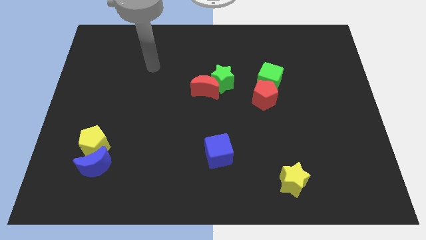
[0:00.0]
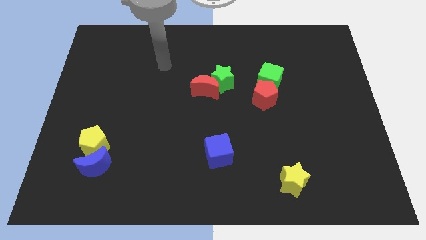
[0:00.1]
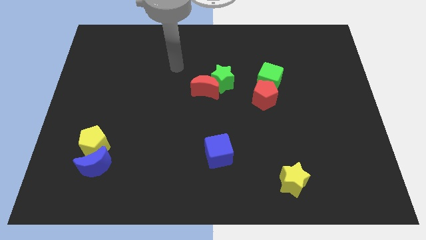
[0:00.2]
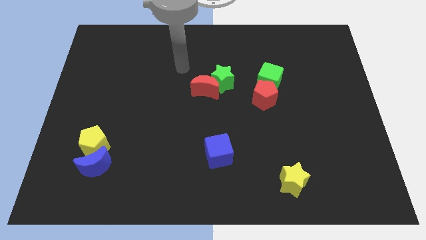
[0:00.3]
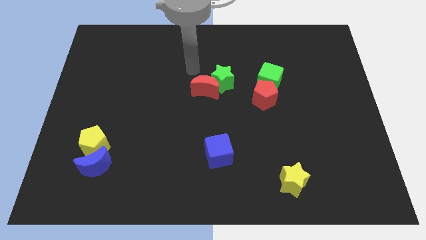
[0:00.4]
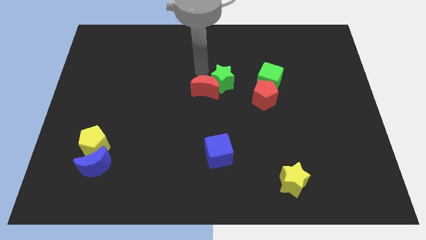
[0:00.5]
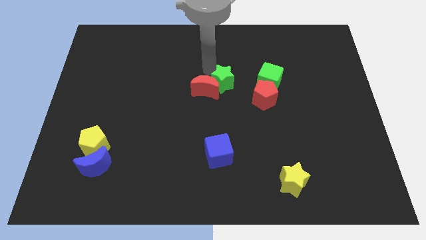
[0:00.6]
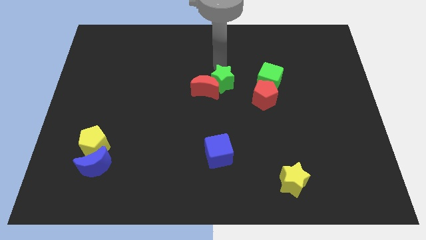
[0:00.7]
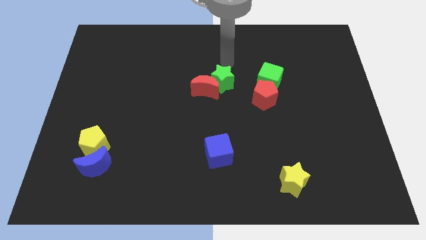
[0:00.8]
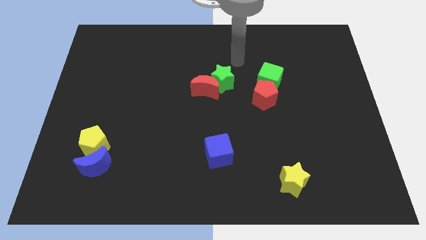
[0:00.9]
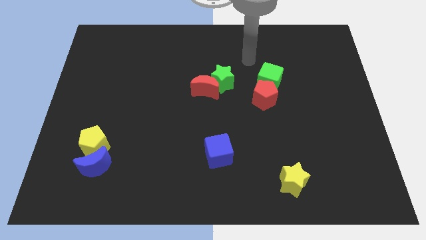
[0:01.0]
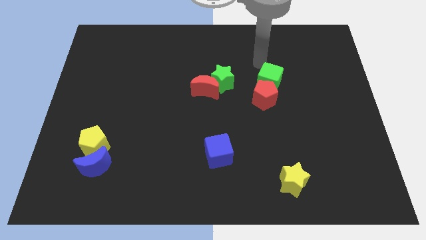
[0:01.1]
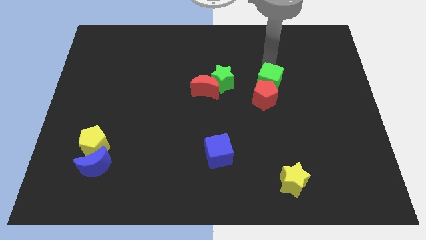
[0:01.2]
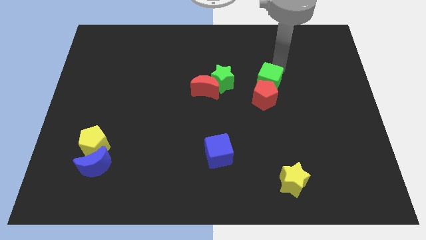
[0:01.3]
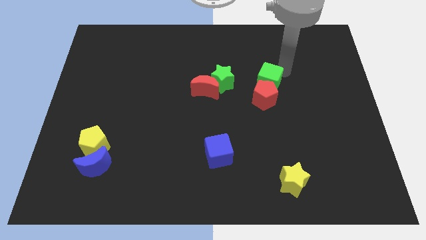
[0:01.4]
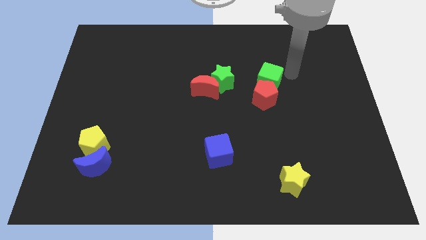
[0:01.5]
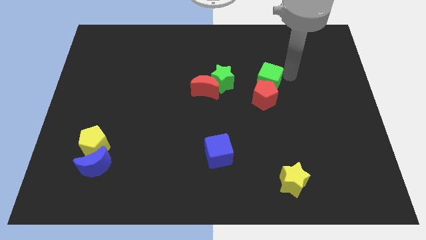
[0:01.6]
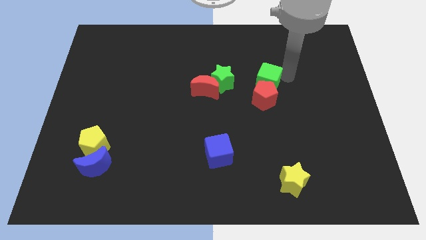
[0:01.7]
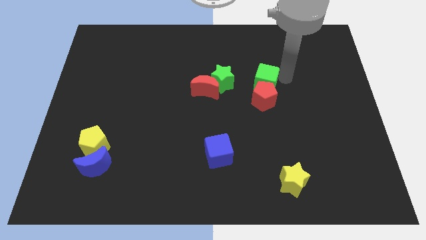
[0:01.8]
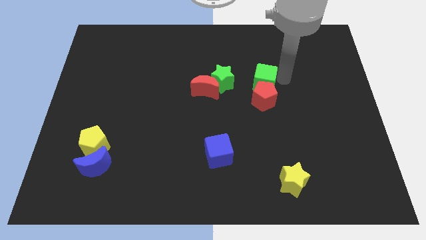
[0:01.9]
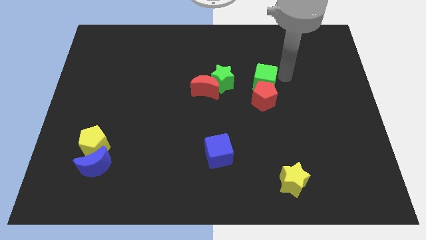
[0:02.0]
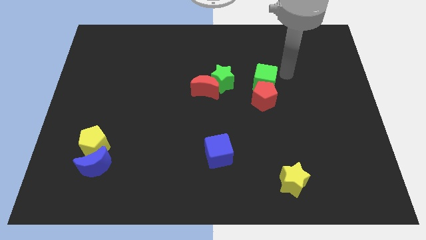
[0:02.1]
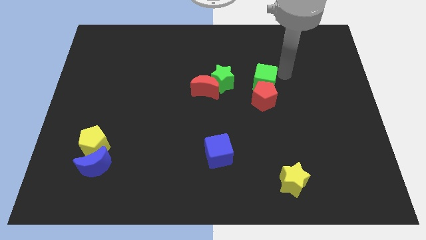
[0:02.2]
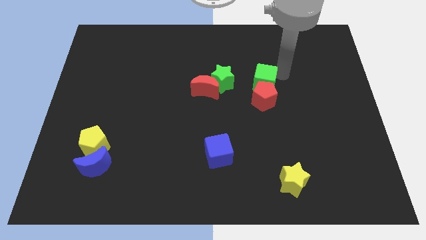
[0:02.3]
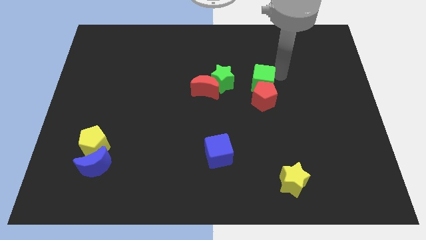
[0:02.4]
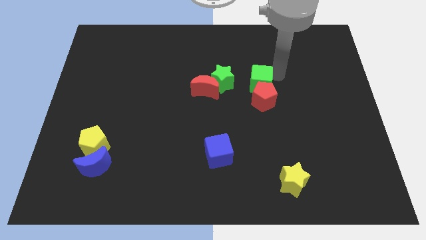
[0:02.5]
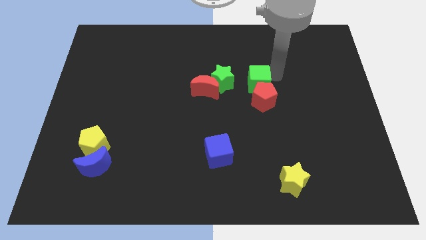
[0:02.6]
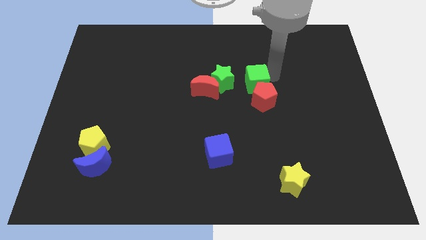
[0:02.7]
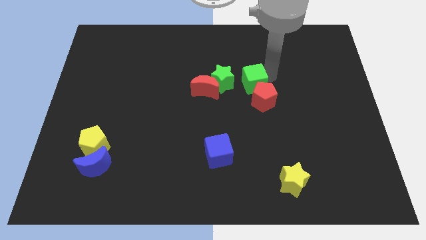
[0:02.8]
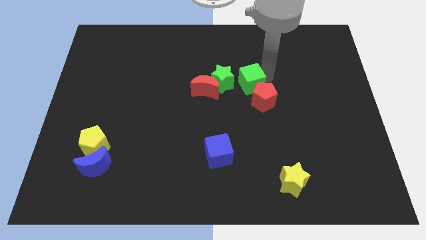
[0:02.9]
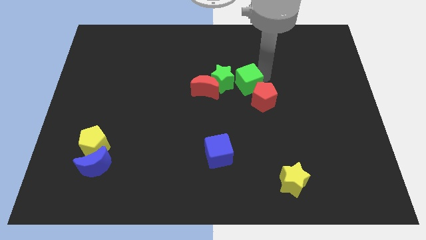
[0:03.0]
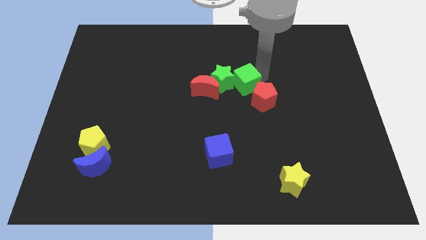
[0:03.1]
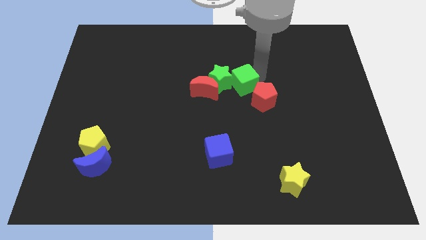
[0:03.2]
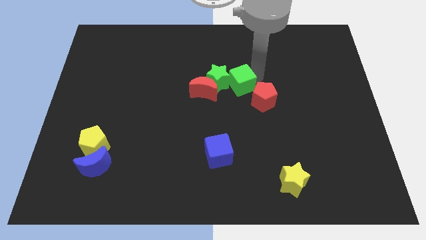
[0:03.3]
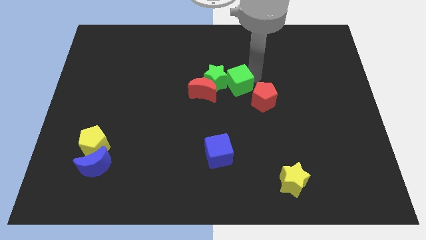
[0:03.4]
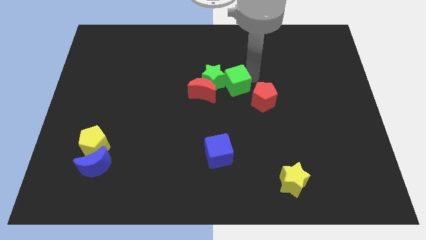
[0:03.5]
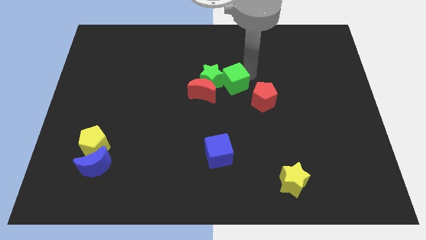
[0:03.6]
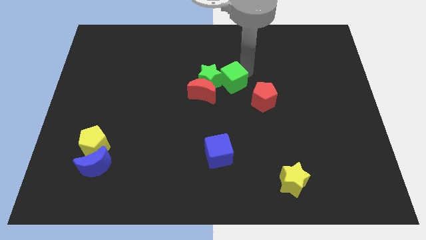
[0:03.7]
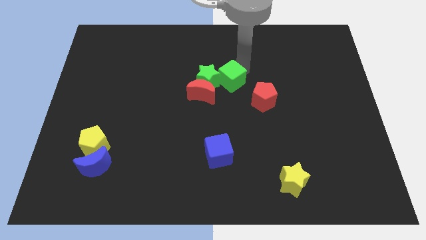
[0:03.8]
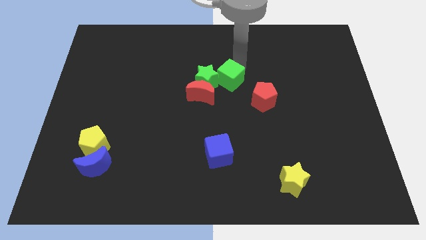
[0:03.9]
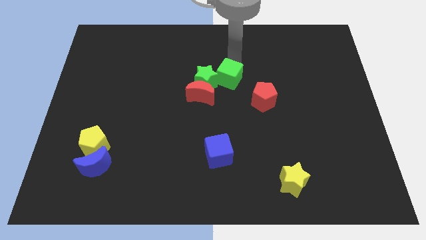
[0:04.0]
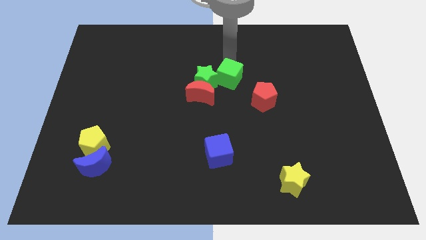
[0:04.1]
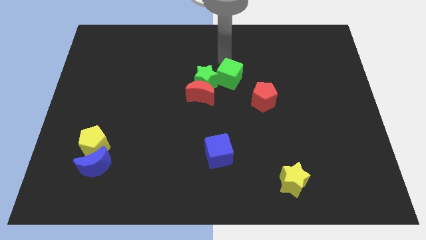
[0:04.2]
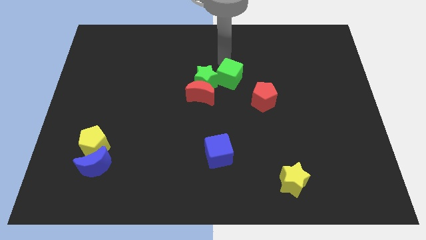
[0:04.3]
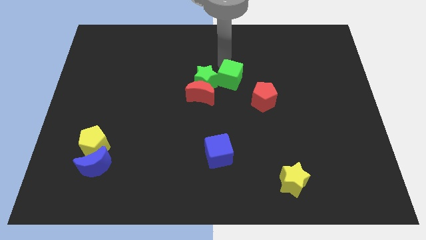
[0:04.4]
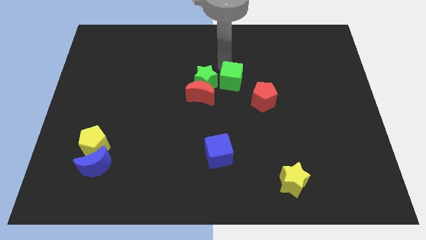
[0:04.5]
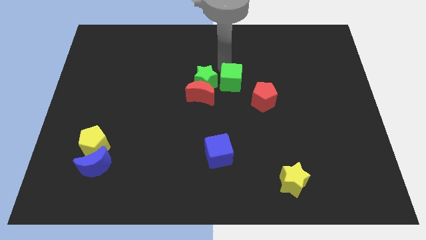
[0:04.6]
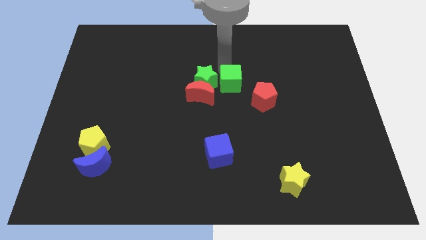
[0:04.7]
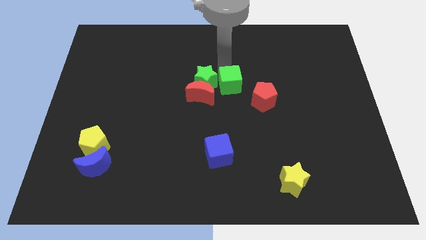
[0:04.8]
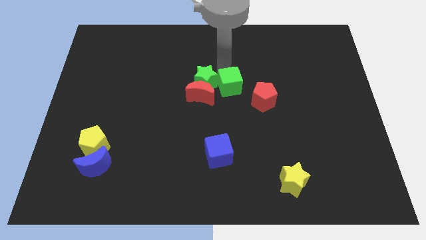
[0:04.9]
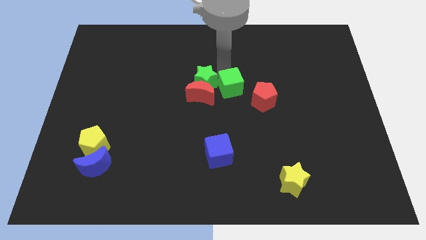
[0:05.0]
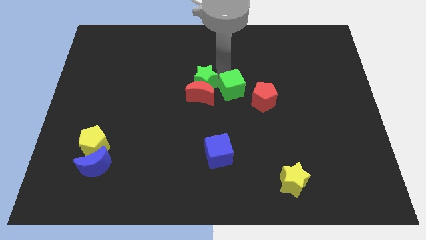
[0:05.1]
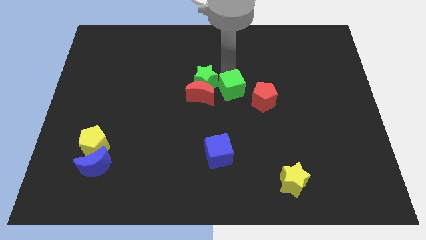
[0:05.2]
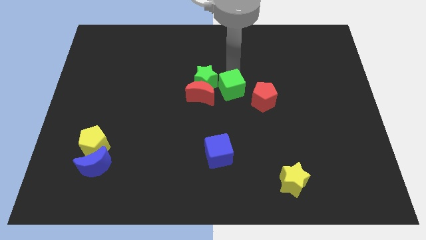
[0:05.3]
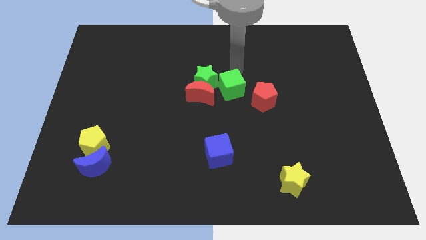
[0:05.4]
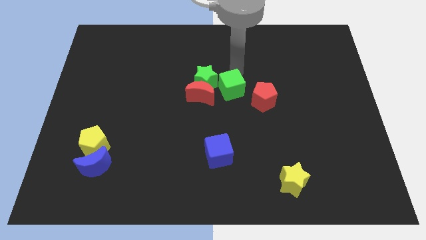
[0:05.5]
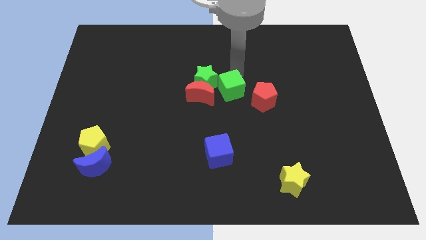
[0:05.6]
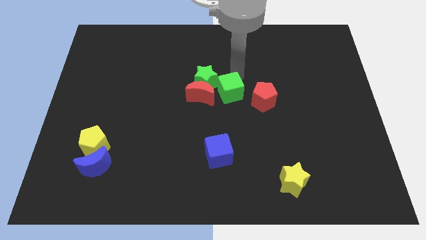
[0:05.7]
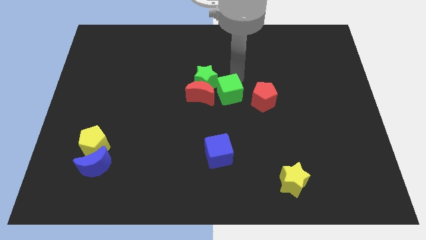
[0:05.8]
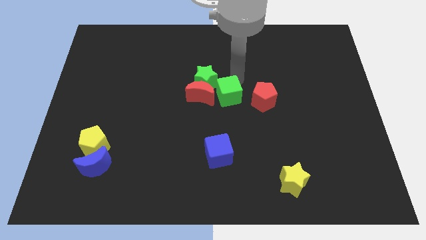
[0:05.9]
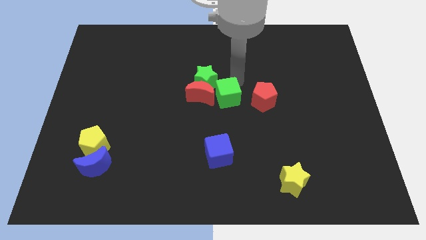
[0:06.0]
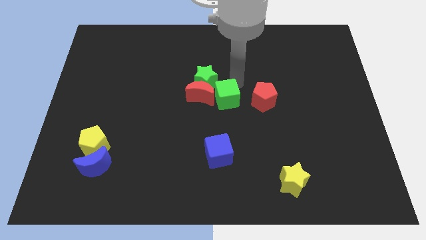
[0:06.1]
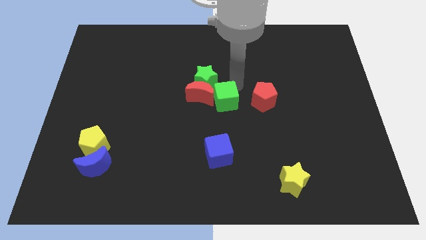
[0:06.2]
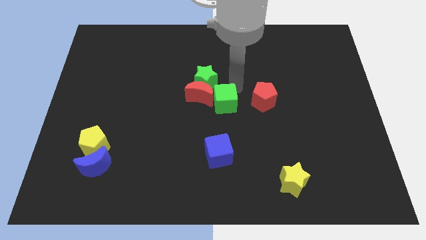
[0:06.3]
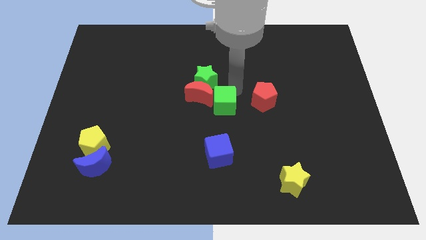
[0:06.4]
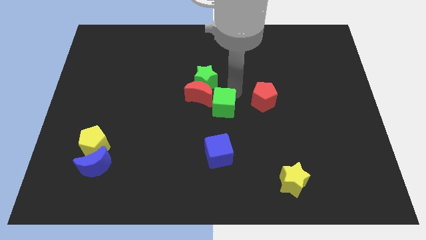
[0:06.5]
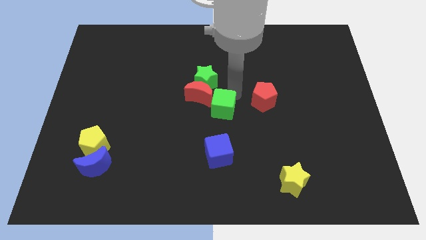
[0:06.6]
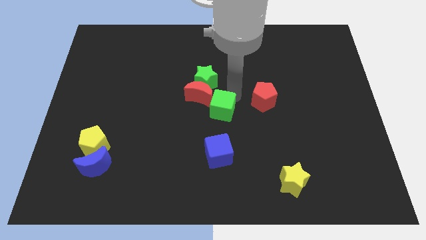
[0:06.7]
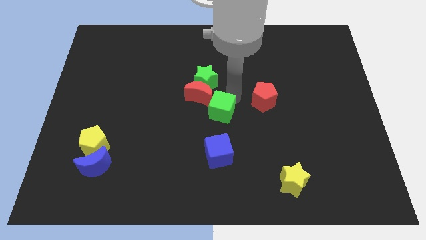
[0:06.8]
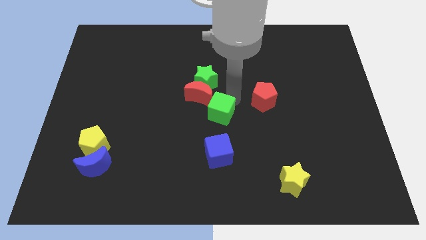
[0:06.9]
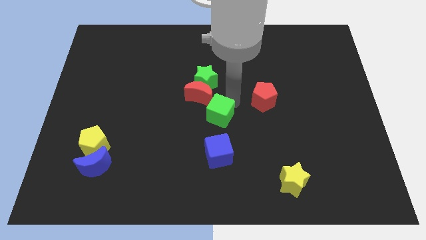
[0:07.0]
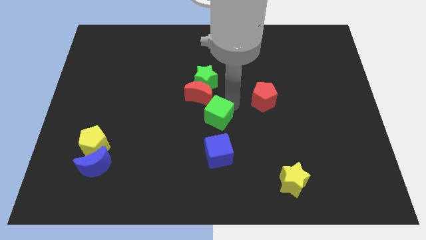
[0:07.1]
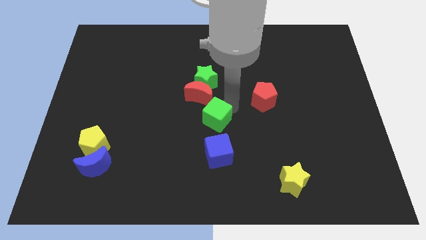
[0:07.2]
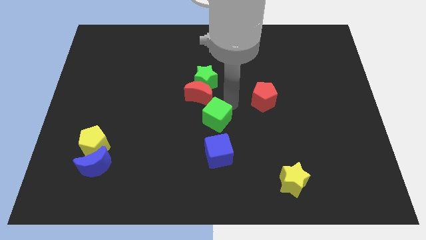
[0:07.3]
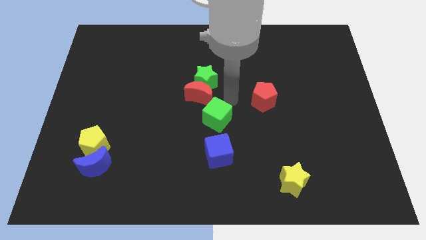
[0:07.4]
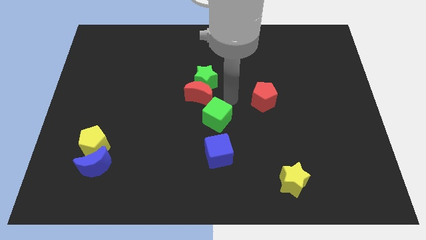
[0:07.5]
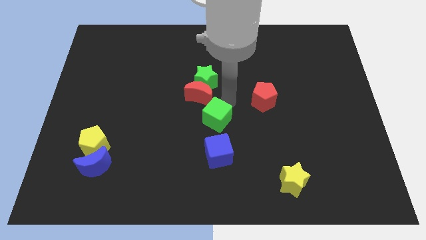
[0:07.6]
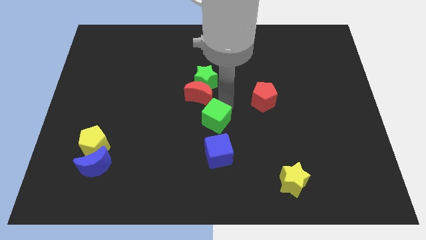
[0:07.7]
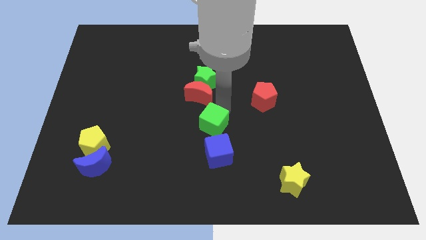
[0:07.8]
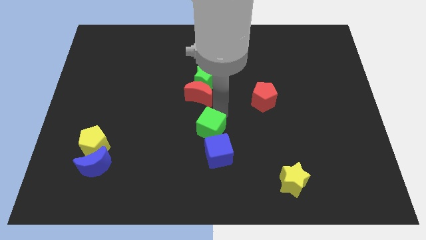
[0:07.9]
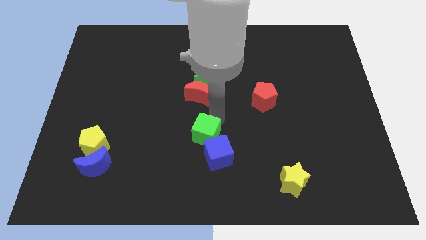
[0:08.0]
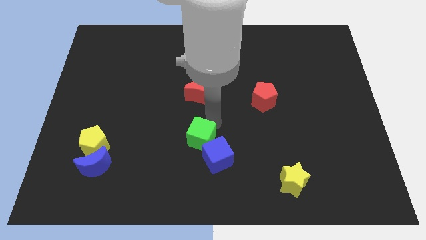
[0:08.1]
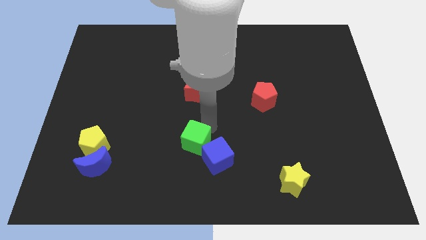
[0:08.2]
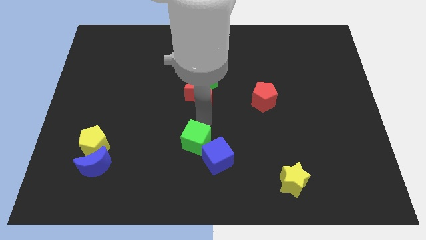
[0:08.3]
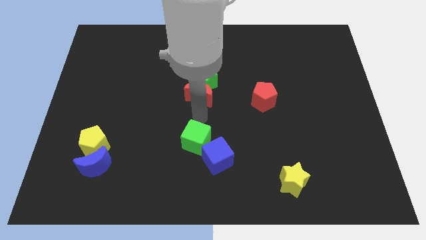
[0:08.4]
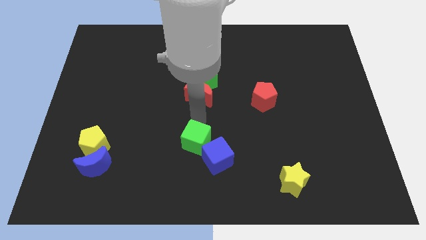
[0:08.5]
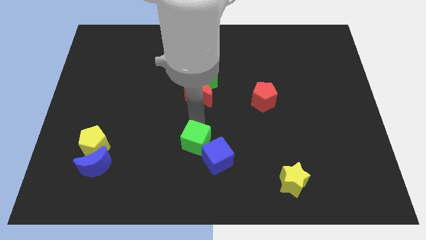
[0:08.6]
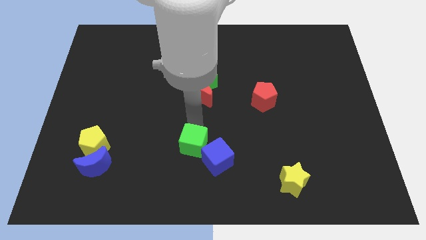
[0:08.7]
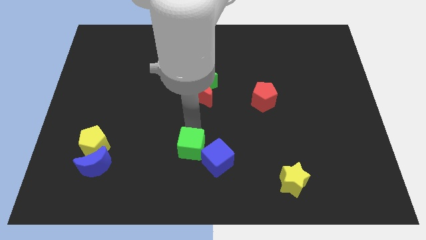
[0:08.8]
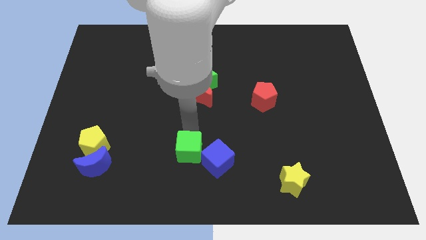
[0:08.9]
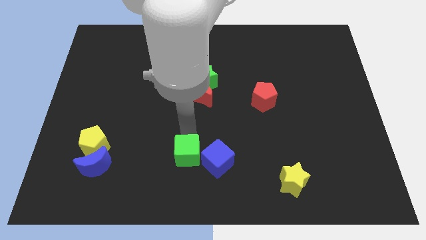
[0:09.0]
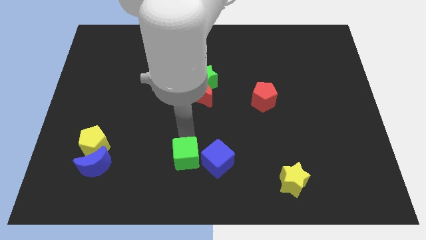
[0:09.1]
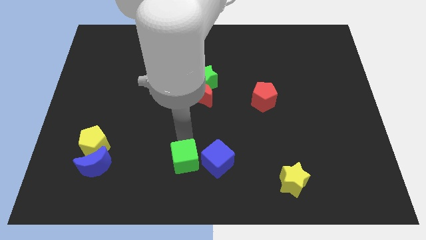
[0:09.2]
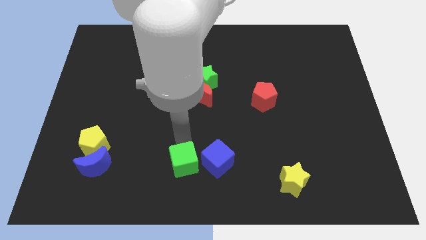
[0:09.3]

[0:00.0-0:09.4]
push the green cube to the bottom left of the blue cube
